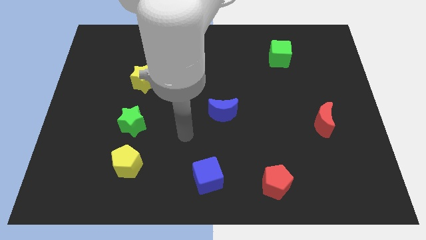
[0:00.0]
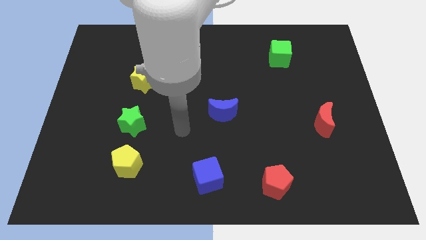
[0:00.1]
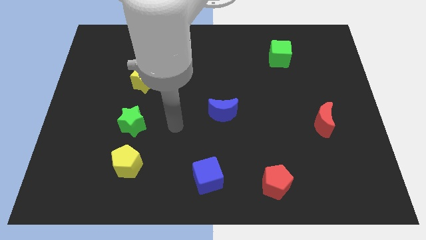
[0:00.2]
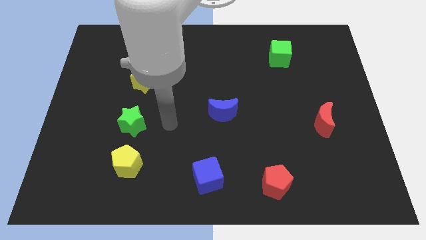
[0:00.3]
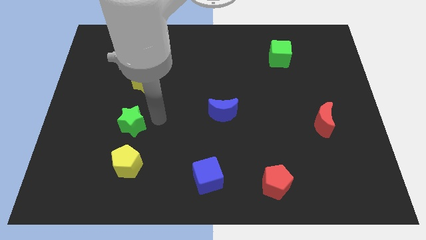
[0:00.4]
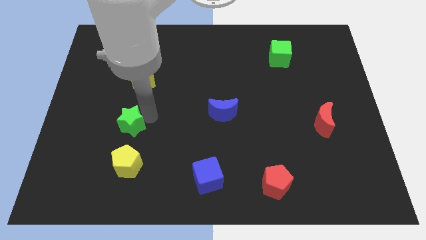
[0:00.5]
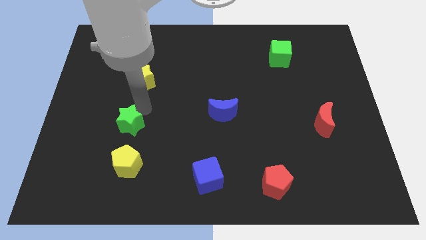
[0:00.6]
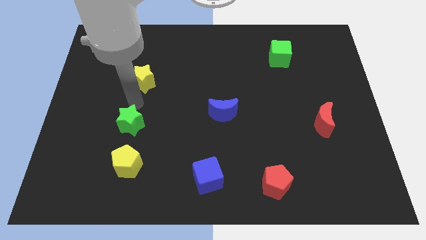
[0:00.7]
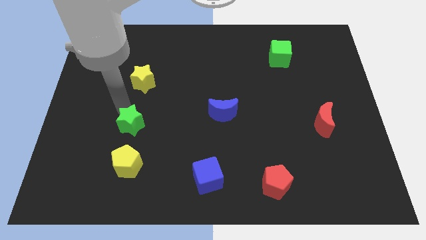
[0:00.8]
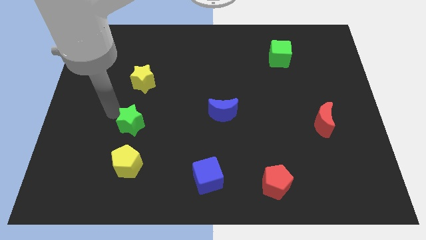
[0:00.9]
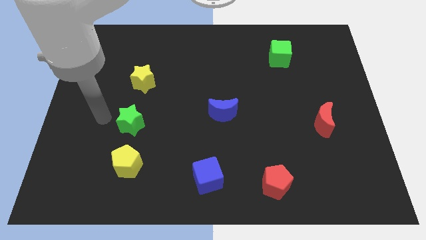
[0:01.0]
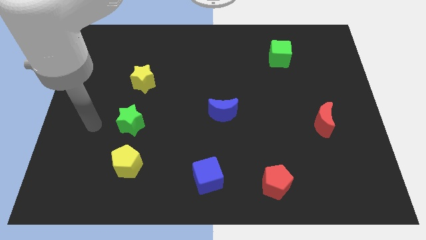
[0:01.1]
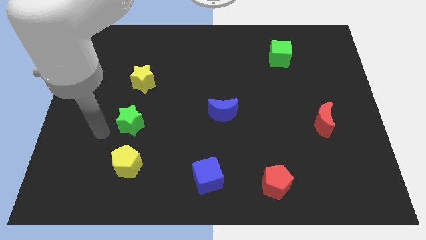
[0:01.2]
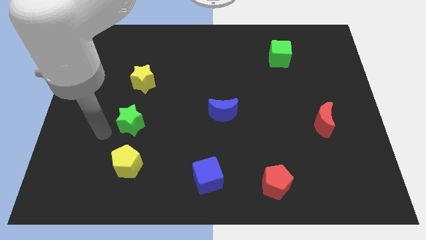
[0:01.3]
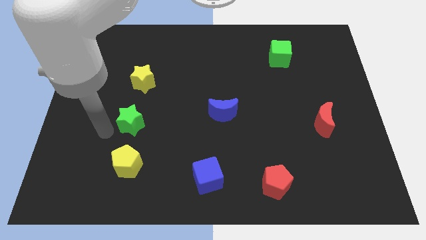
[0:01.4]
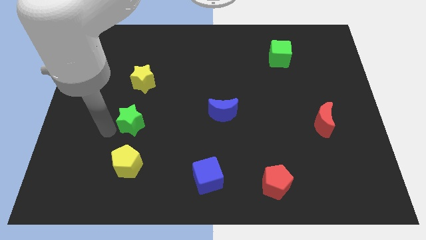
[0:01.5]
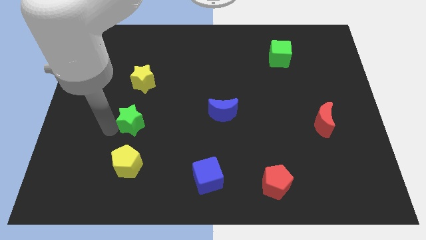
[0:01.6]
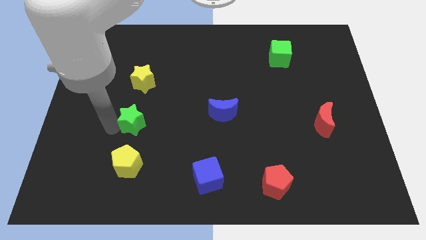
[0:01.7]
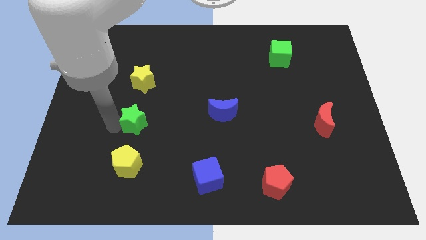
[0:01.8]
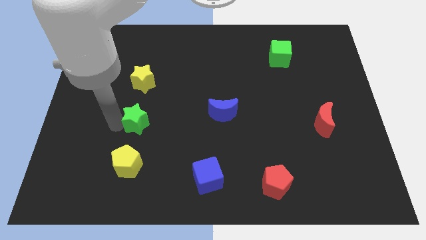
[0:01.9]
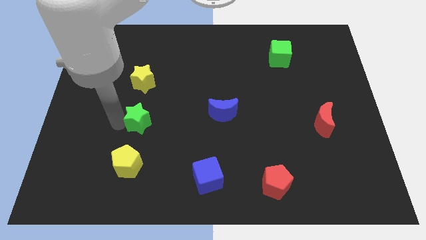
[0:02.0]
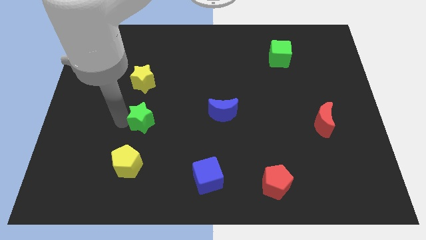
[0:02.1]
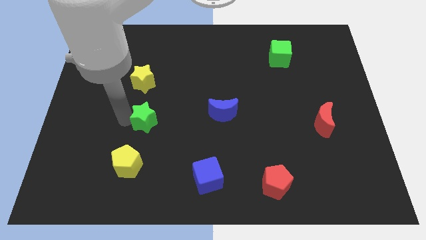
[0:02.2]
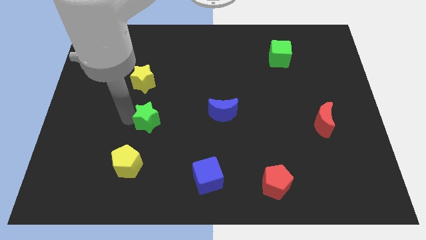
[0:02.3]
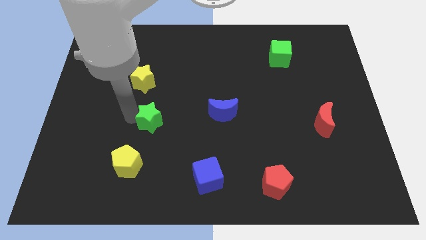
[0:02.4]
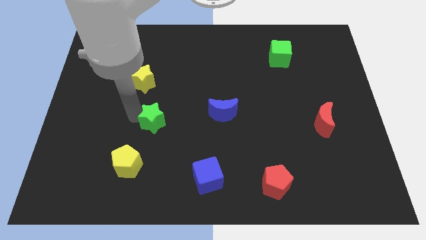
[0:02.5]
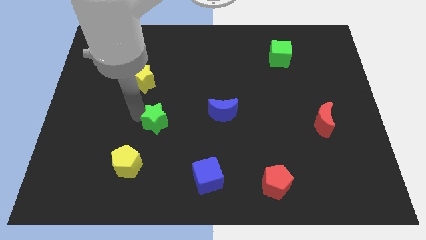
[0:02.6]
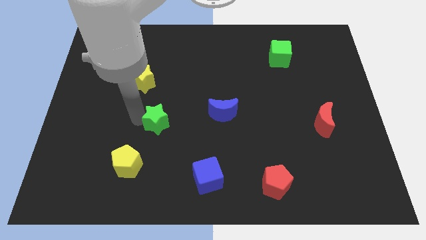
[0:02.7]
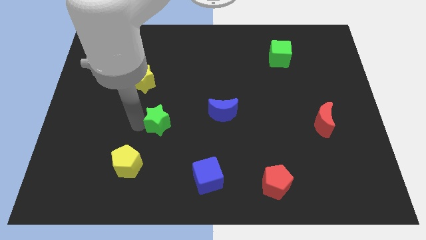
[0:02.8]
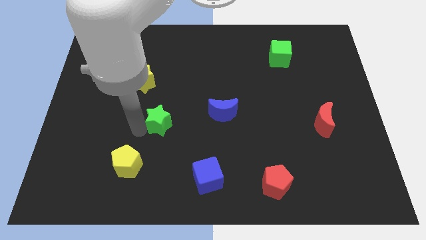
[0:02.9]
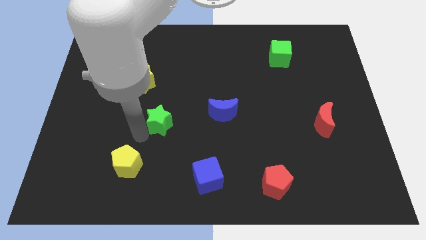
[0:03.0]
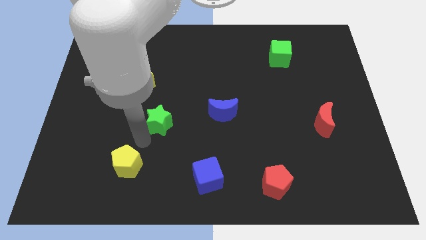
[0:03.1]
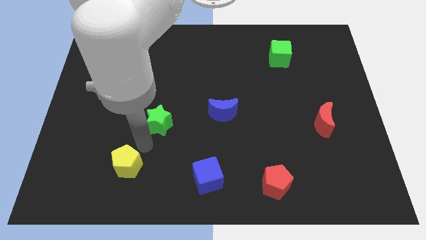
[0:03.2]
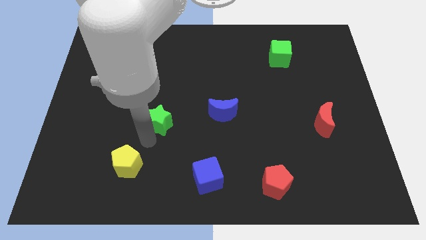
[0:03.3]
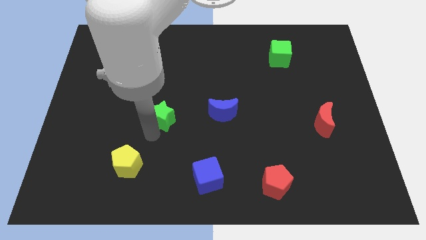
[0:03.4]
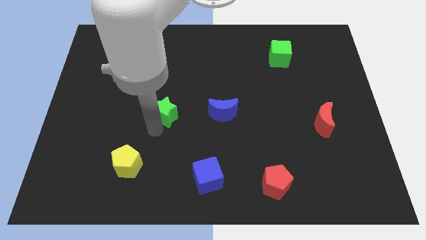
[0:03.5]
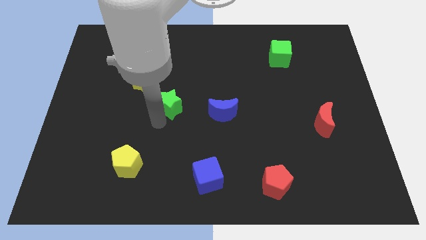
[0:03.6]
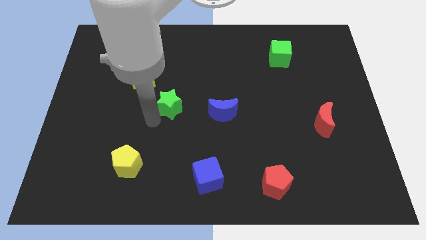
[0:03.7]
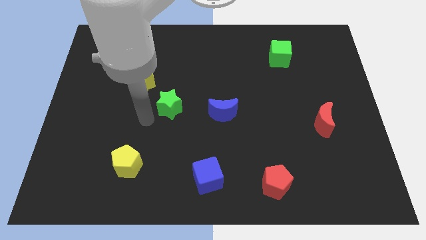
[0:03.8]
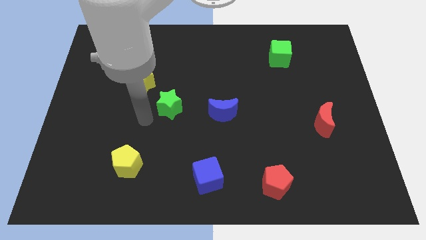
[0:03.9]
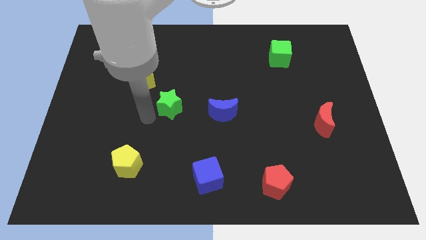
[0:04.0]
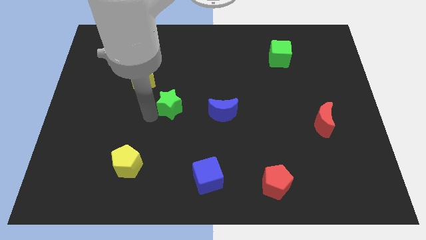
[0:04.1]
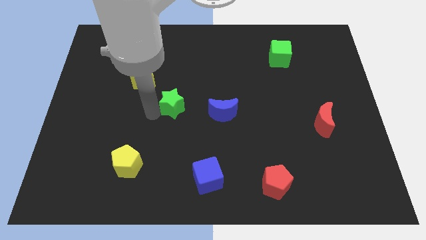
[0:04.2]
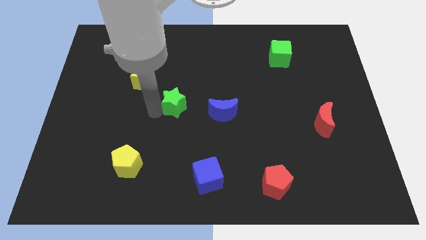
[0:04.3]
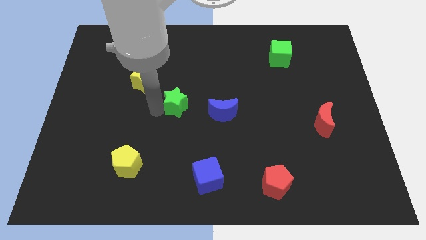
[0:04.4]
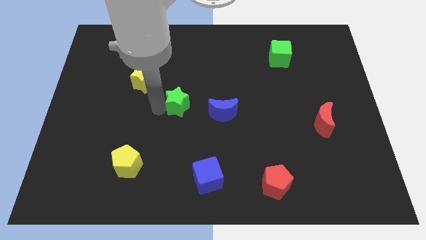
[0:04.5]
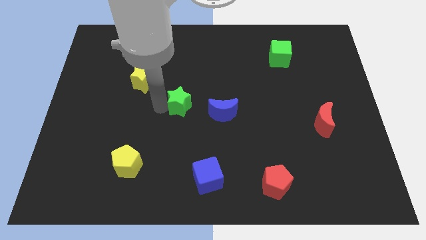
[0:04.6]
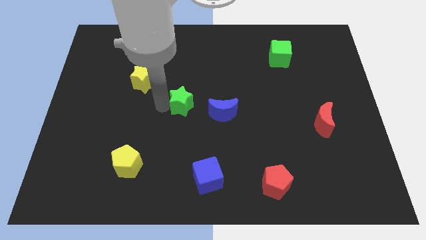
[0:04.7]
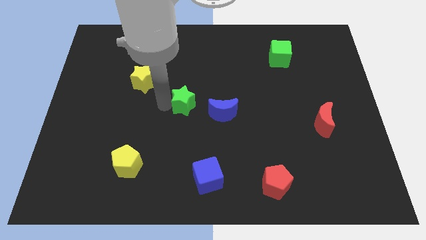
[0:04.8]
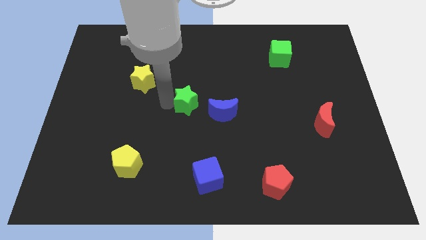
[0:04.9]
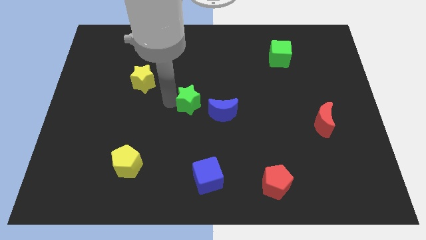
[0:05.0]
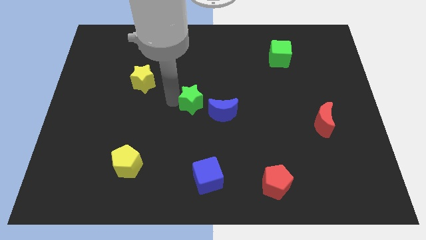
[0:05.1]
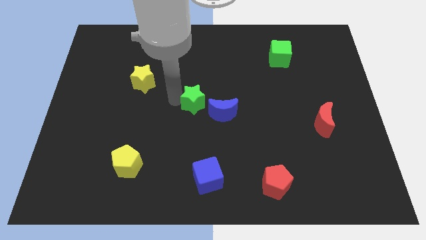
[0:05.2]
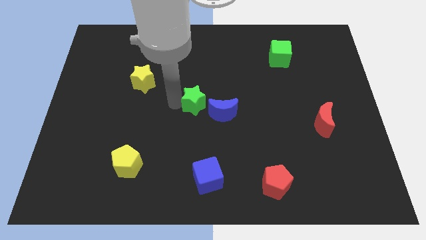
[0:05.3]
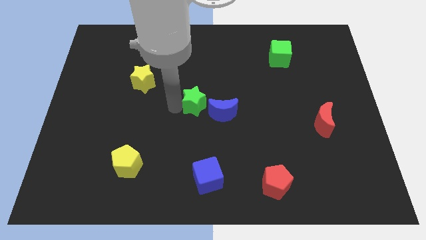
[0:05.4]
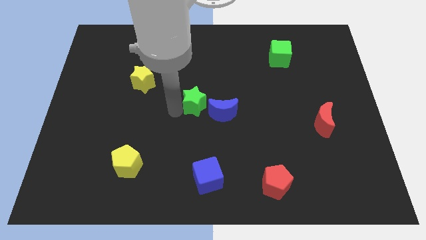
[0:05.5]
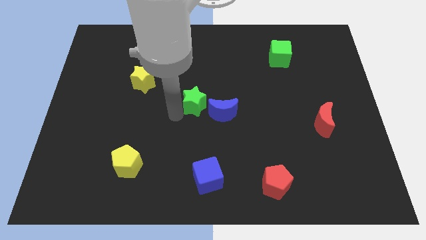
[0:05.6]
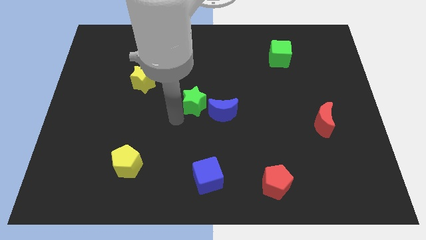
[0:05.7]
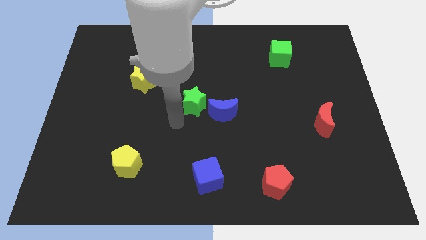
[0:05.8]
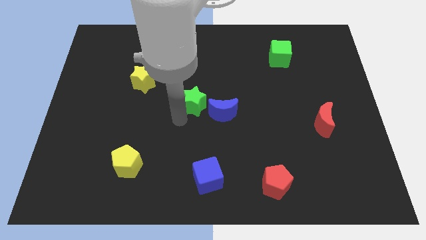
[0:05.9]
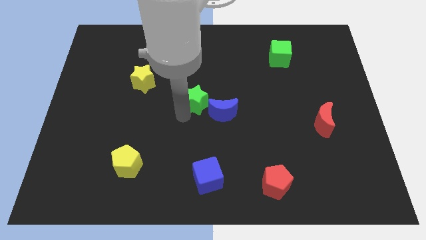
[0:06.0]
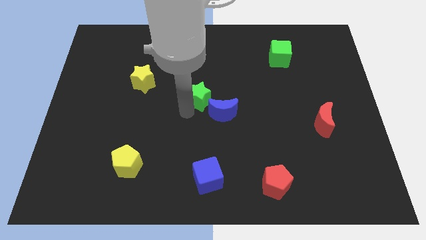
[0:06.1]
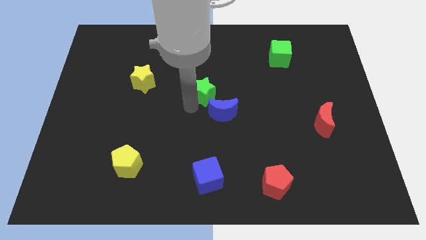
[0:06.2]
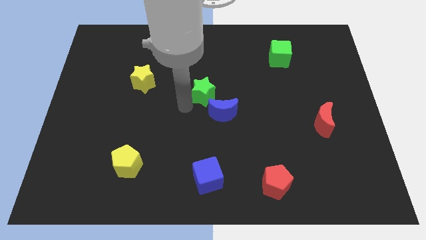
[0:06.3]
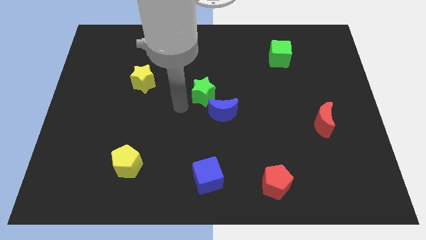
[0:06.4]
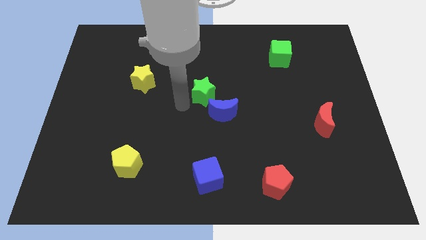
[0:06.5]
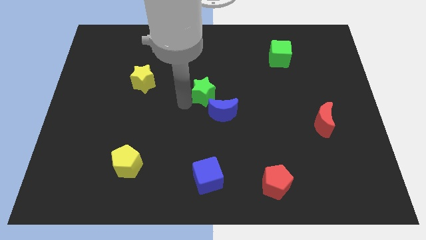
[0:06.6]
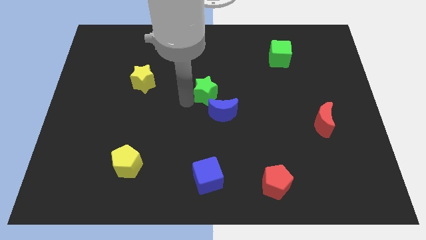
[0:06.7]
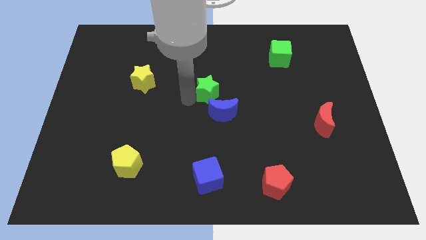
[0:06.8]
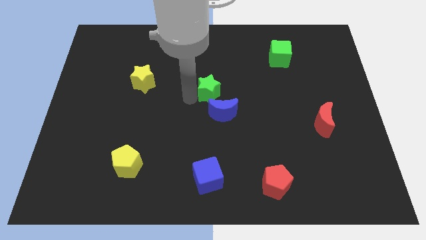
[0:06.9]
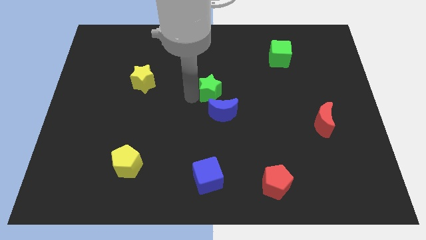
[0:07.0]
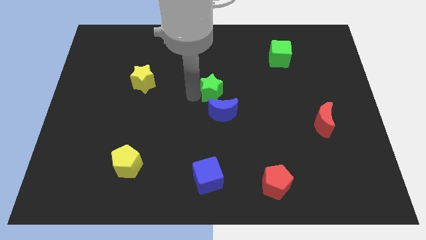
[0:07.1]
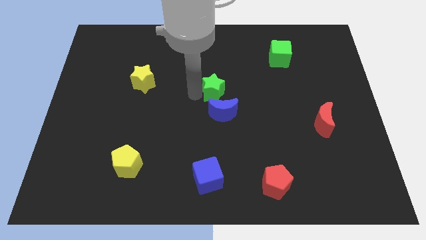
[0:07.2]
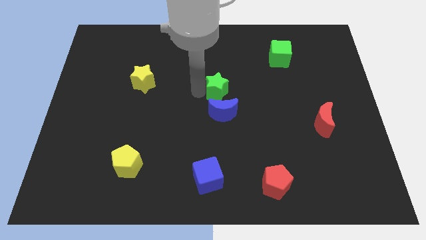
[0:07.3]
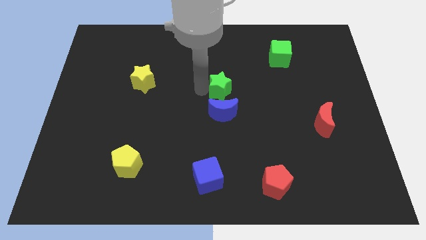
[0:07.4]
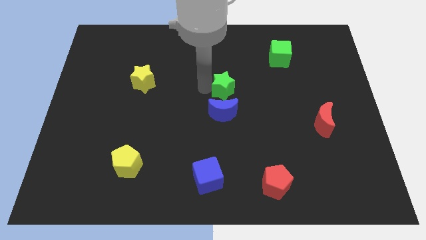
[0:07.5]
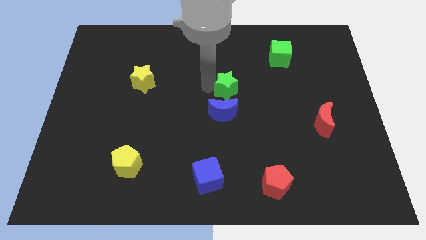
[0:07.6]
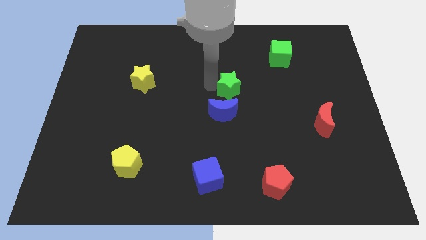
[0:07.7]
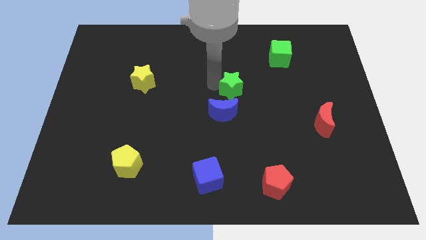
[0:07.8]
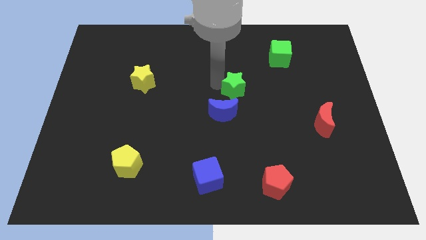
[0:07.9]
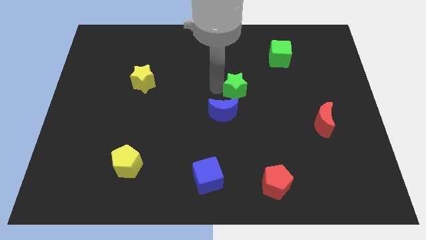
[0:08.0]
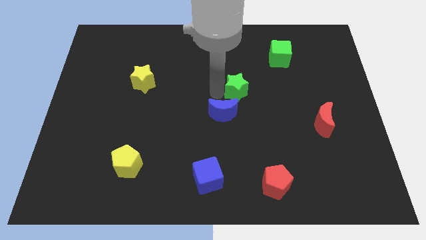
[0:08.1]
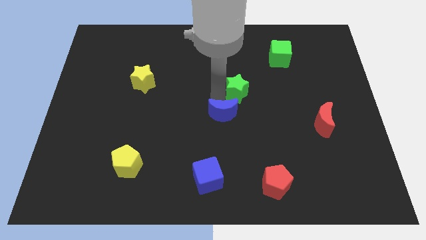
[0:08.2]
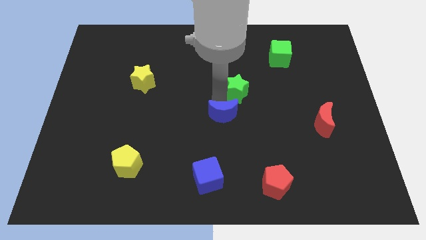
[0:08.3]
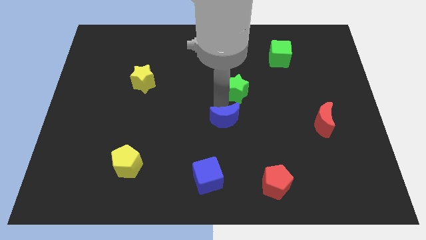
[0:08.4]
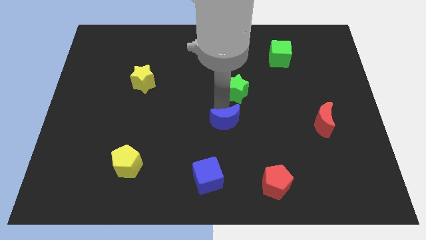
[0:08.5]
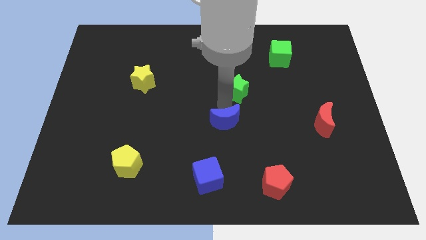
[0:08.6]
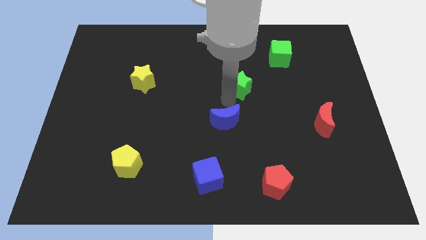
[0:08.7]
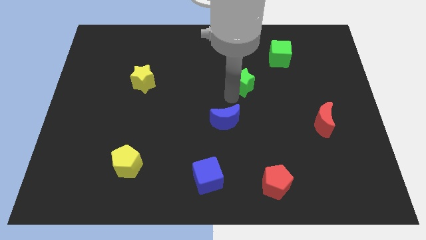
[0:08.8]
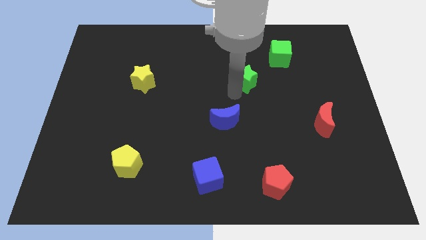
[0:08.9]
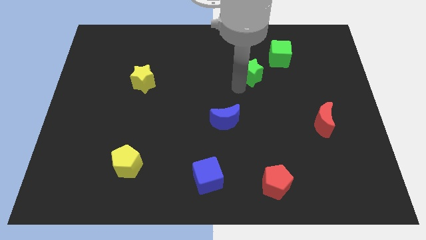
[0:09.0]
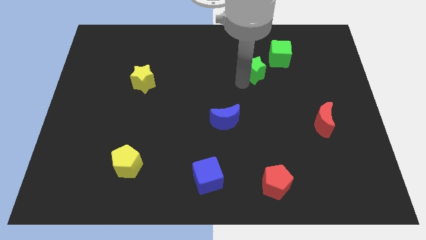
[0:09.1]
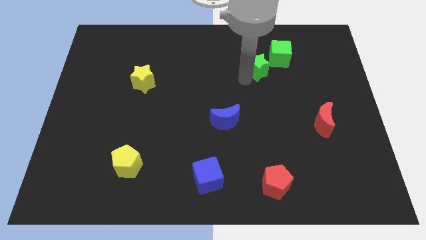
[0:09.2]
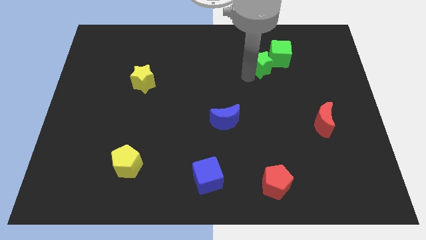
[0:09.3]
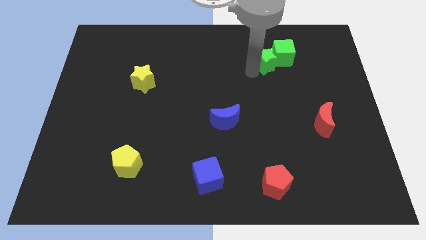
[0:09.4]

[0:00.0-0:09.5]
slide the green star to the green cube
